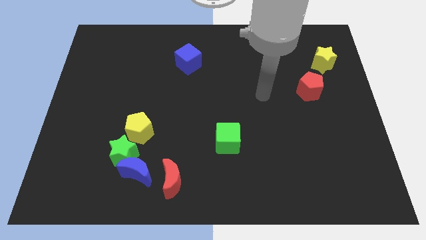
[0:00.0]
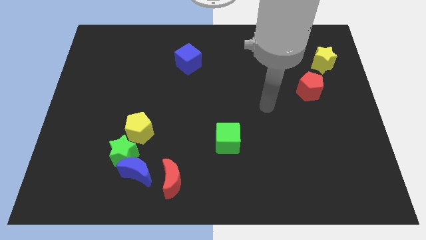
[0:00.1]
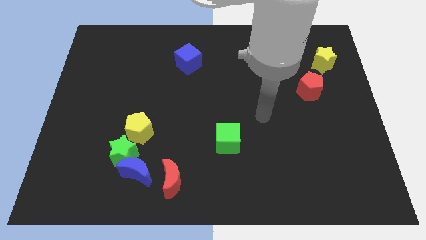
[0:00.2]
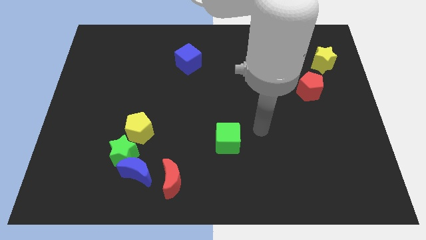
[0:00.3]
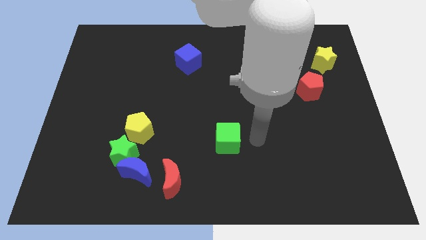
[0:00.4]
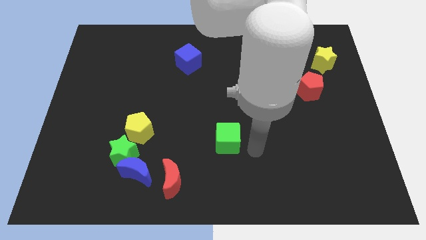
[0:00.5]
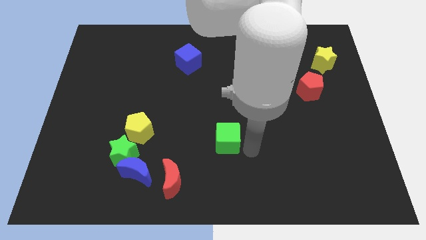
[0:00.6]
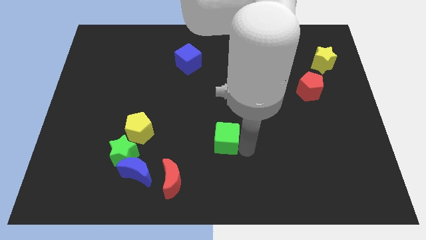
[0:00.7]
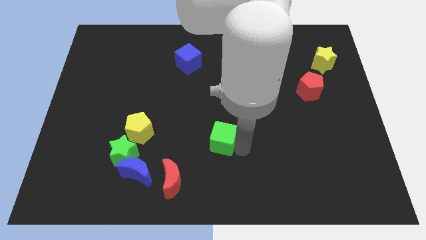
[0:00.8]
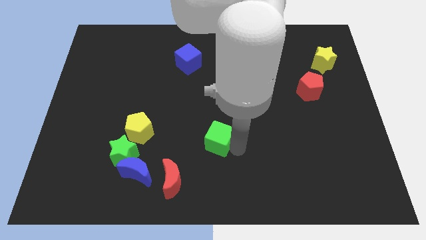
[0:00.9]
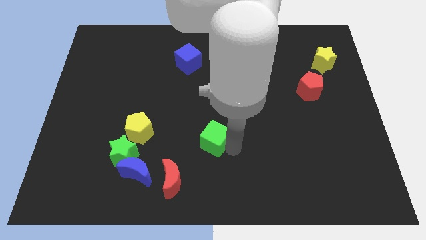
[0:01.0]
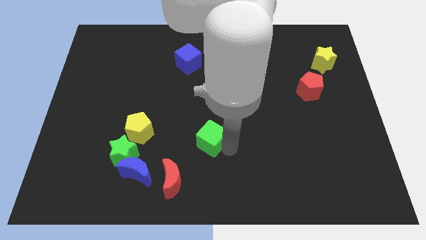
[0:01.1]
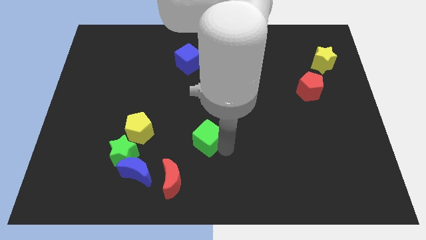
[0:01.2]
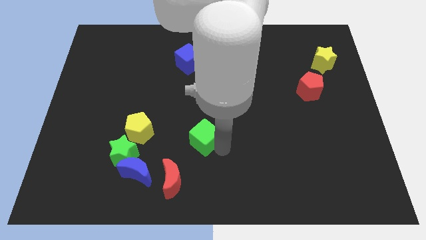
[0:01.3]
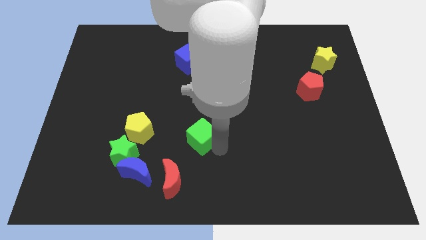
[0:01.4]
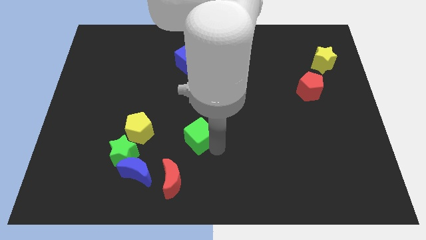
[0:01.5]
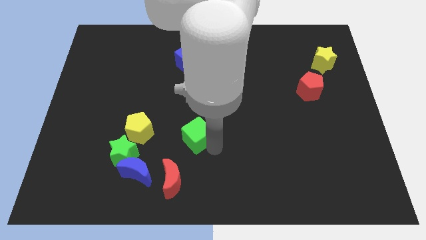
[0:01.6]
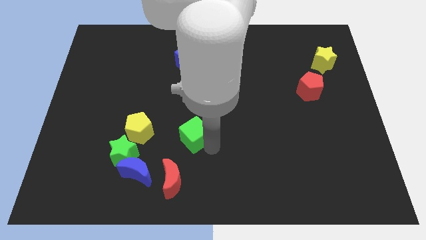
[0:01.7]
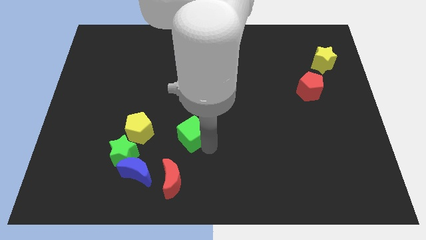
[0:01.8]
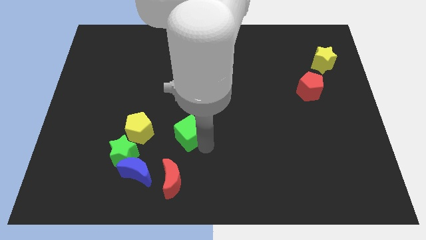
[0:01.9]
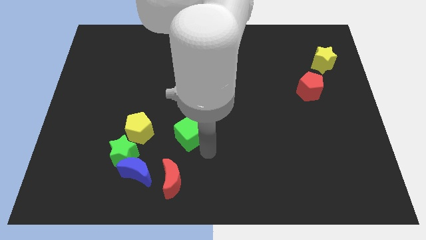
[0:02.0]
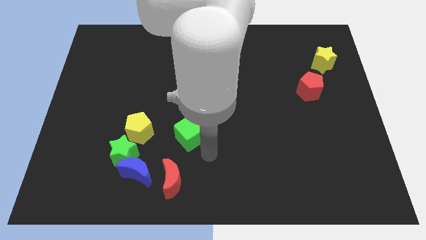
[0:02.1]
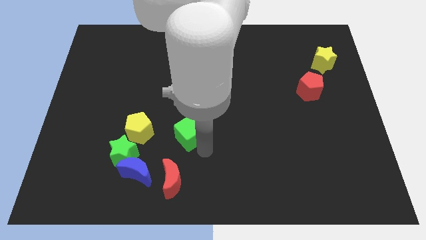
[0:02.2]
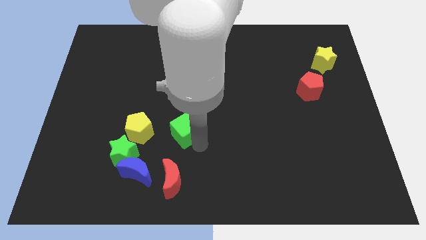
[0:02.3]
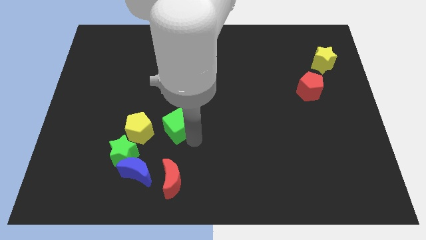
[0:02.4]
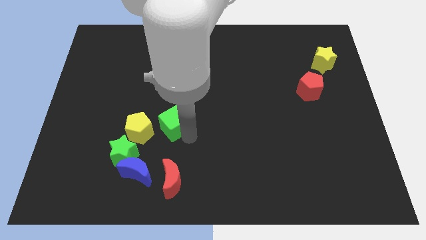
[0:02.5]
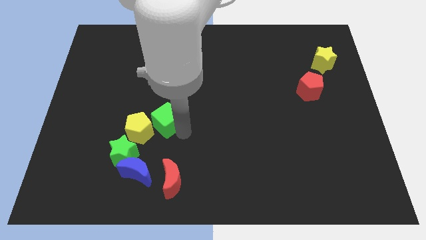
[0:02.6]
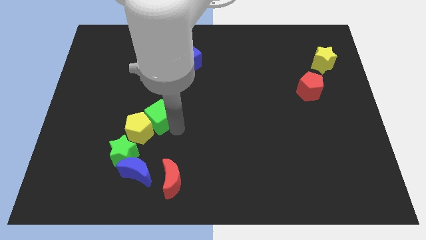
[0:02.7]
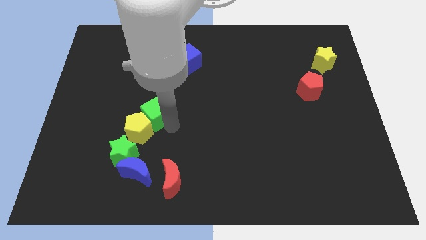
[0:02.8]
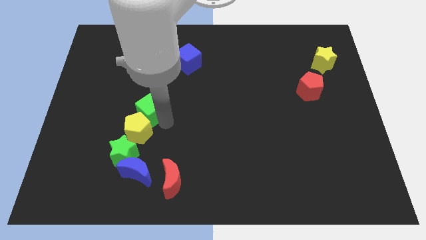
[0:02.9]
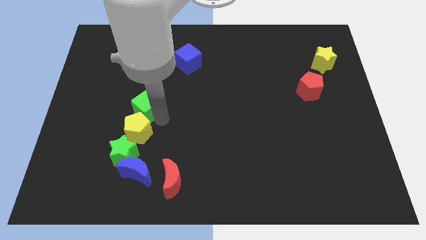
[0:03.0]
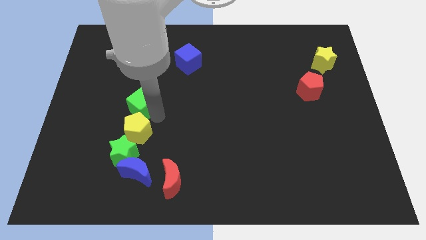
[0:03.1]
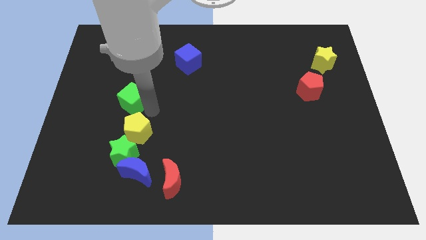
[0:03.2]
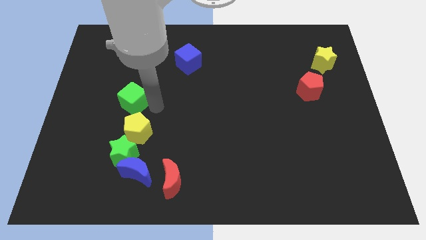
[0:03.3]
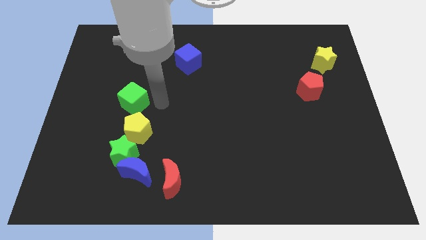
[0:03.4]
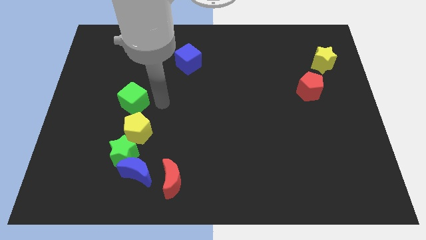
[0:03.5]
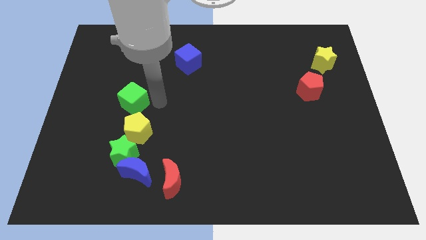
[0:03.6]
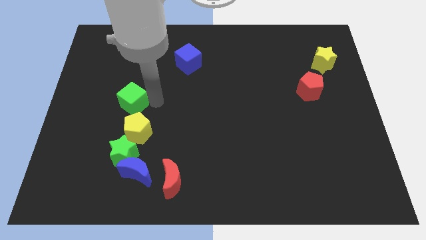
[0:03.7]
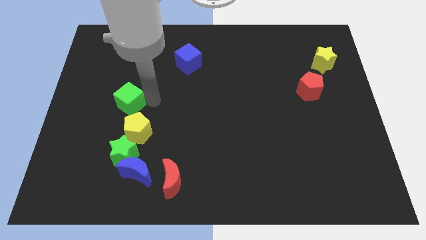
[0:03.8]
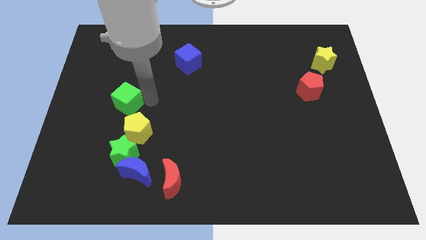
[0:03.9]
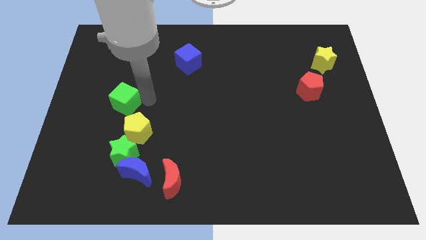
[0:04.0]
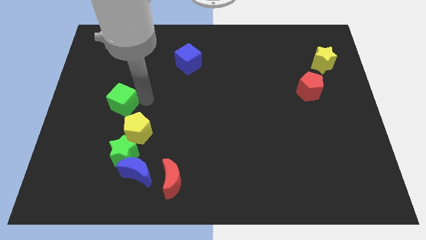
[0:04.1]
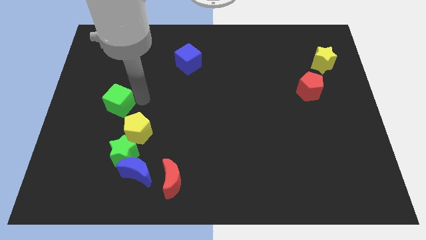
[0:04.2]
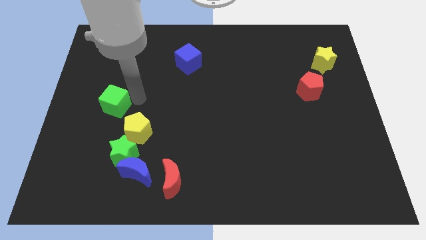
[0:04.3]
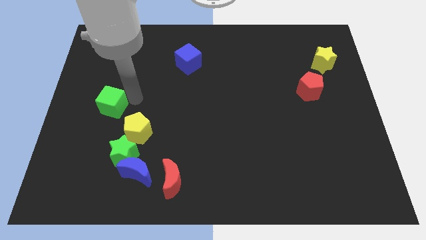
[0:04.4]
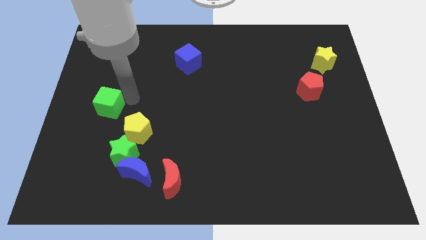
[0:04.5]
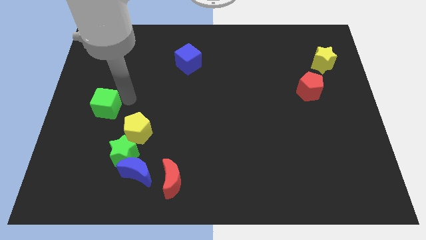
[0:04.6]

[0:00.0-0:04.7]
push the green cube to the left side of the board

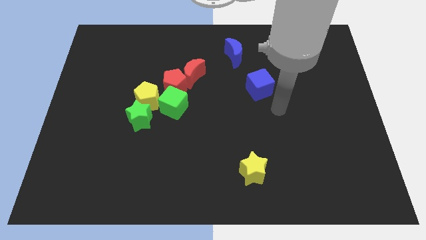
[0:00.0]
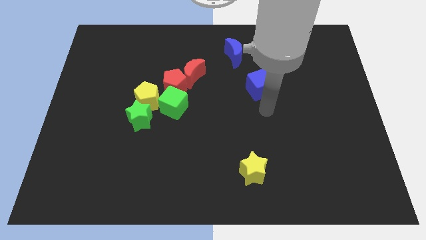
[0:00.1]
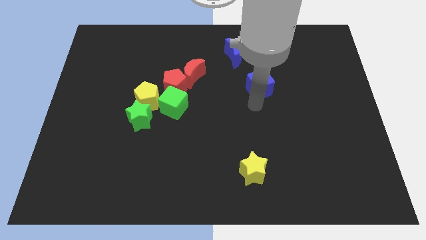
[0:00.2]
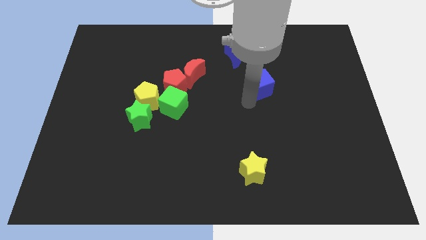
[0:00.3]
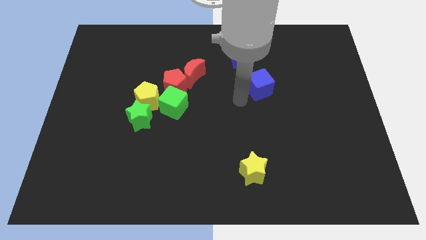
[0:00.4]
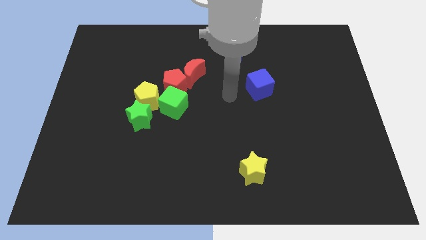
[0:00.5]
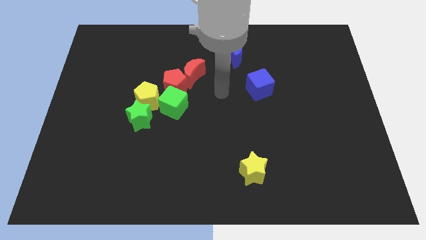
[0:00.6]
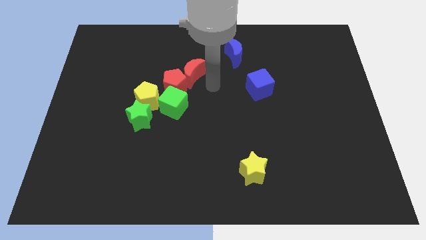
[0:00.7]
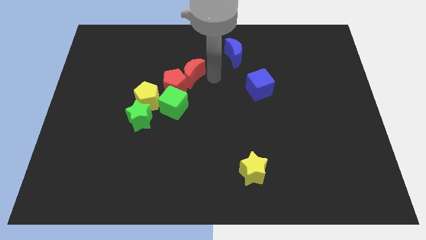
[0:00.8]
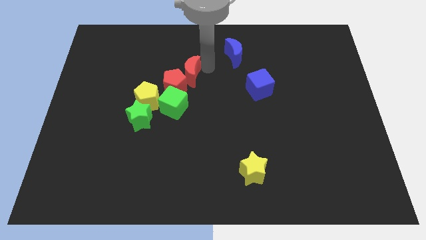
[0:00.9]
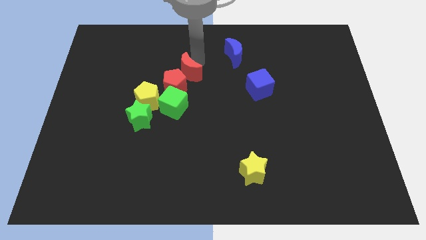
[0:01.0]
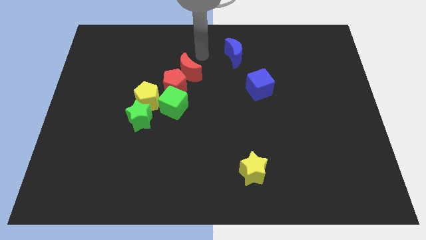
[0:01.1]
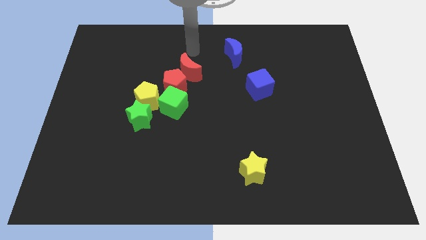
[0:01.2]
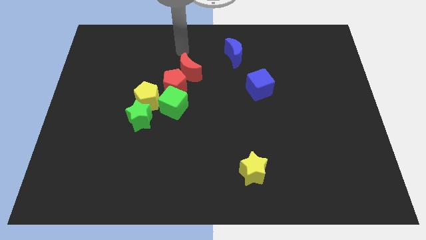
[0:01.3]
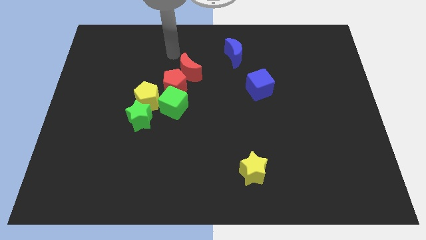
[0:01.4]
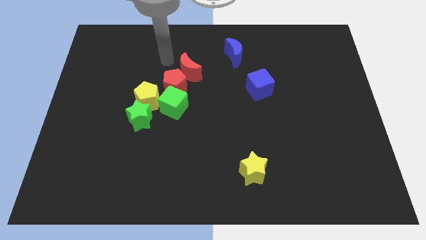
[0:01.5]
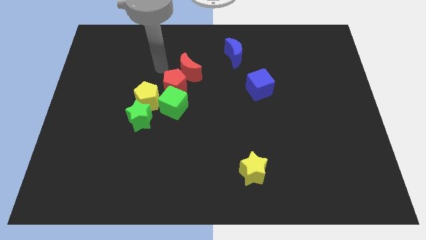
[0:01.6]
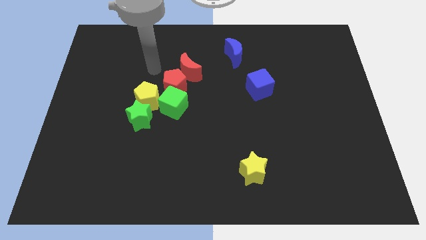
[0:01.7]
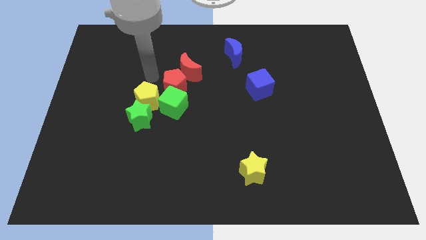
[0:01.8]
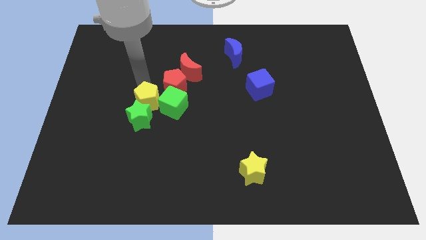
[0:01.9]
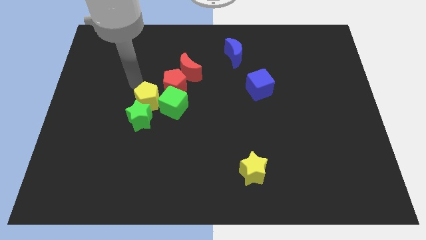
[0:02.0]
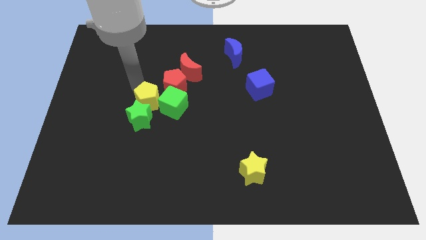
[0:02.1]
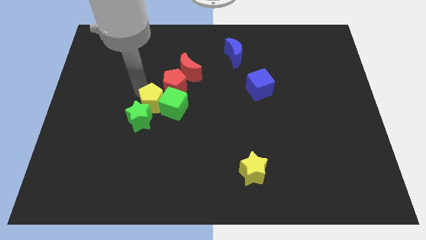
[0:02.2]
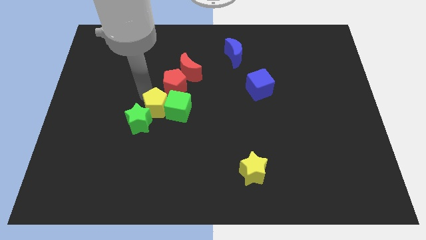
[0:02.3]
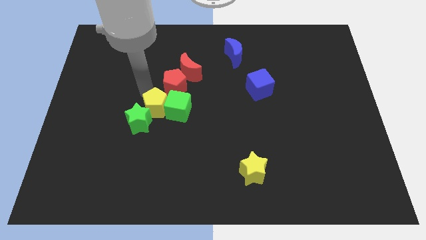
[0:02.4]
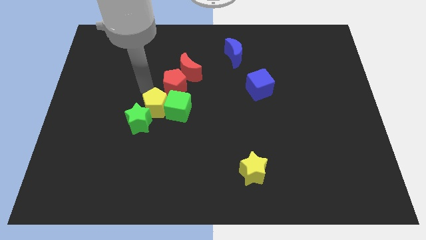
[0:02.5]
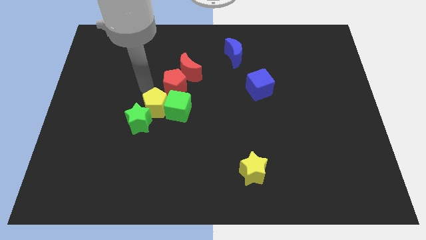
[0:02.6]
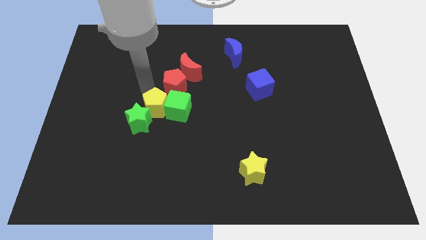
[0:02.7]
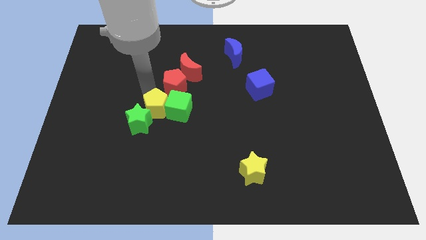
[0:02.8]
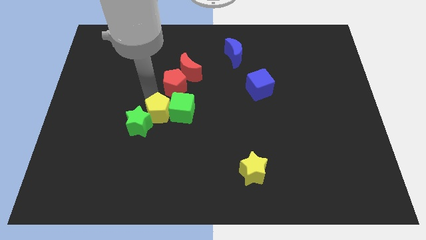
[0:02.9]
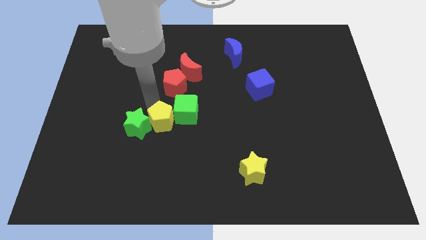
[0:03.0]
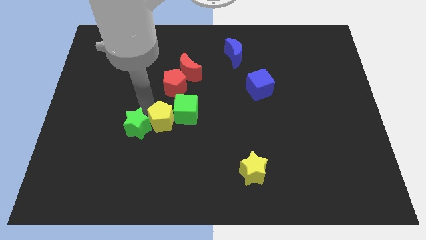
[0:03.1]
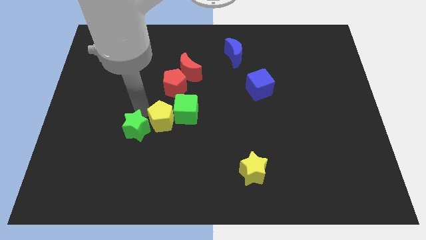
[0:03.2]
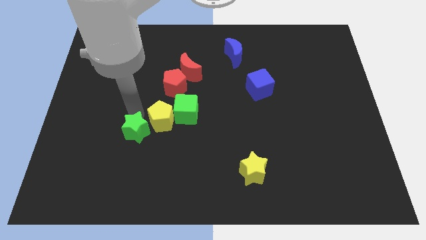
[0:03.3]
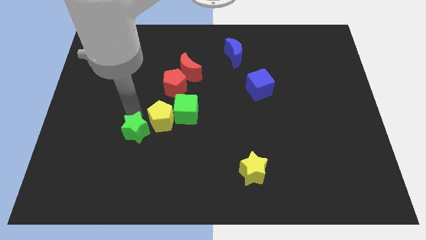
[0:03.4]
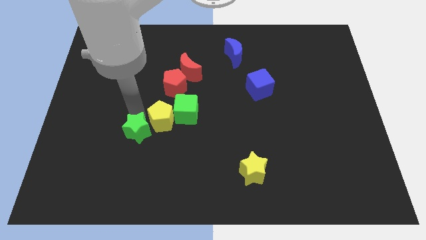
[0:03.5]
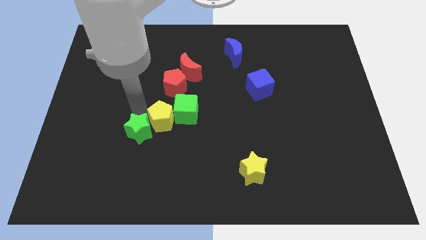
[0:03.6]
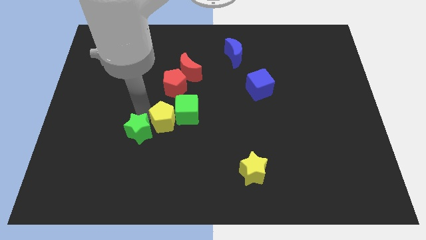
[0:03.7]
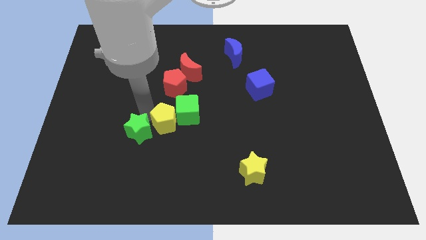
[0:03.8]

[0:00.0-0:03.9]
move the yellow pentagon to the center of the board
